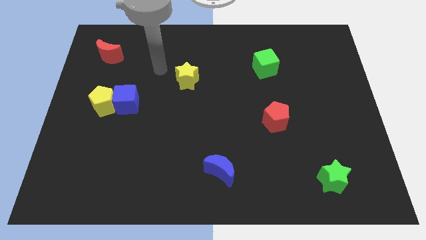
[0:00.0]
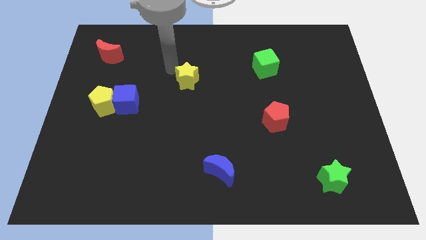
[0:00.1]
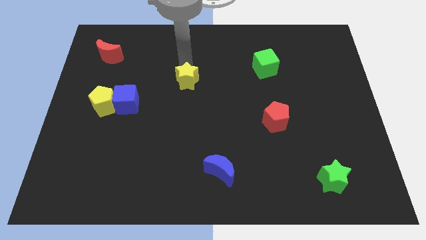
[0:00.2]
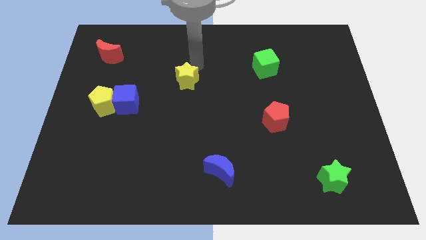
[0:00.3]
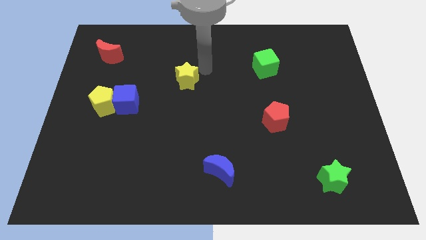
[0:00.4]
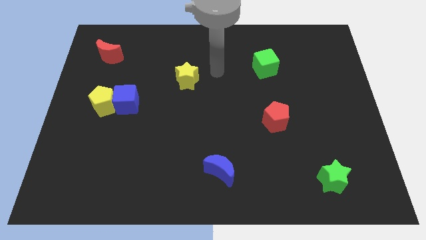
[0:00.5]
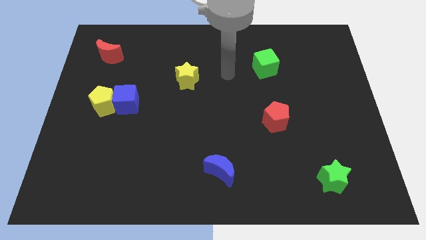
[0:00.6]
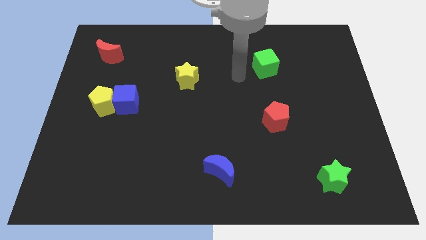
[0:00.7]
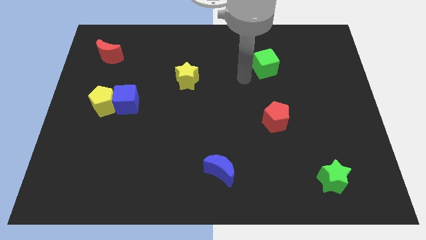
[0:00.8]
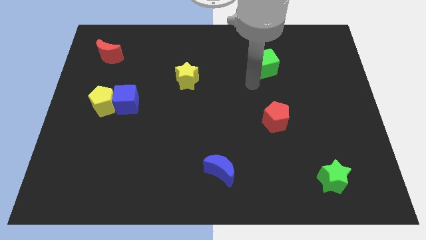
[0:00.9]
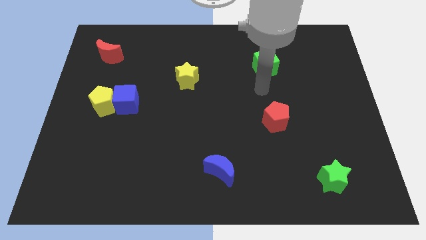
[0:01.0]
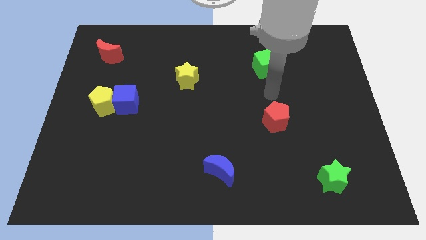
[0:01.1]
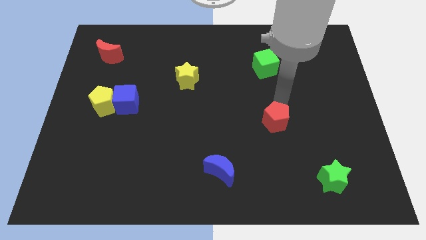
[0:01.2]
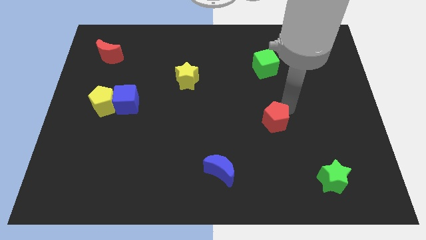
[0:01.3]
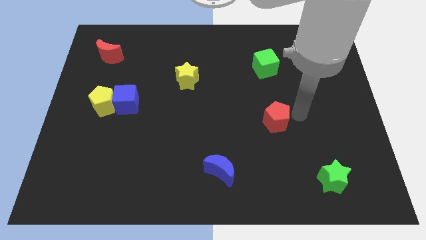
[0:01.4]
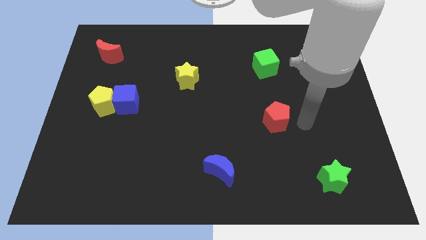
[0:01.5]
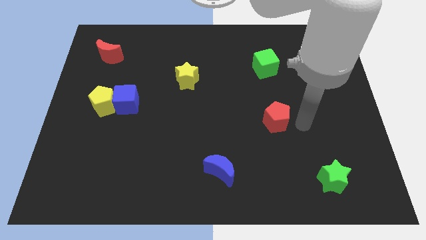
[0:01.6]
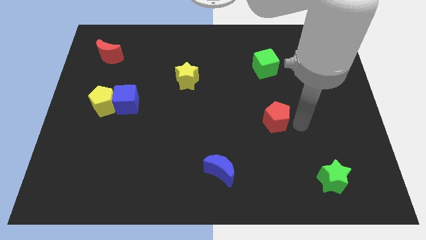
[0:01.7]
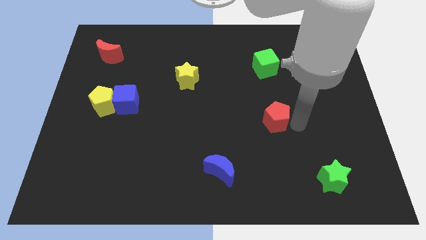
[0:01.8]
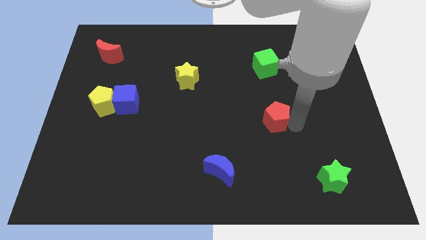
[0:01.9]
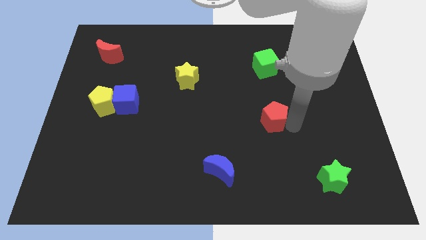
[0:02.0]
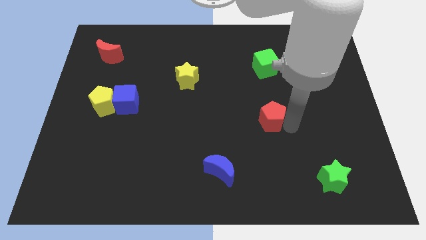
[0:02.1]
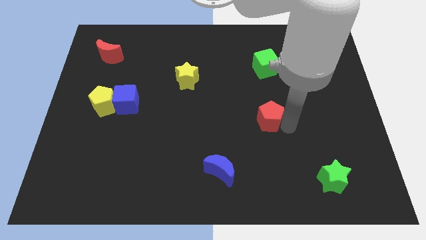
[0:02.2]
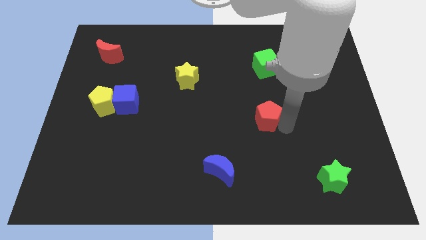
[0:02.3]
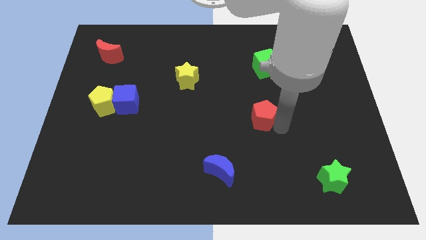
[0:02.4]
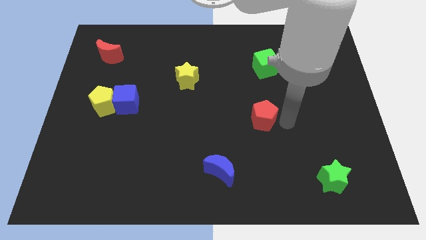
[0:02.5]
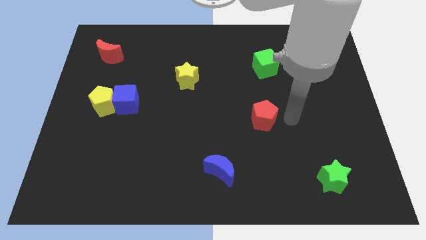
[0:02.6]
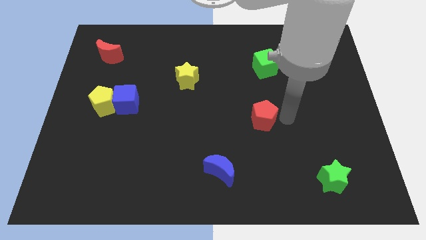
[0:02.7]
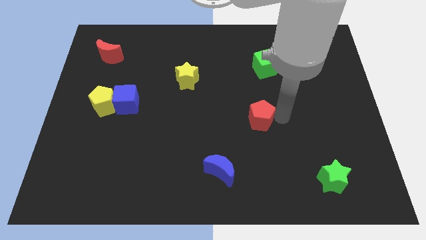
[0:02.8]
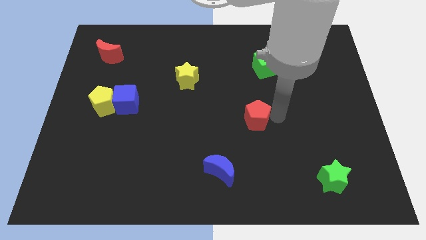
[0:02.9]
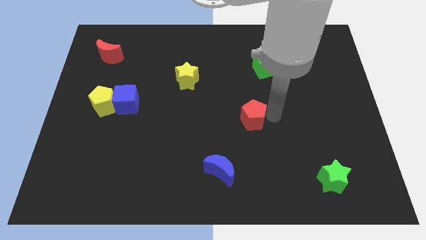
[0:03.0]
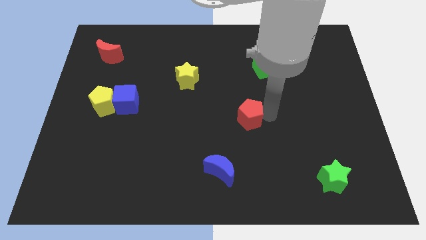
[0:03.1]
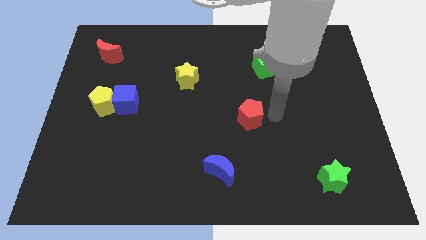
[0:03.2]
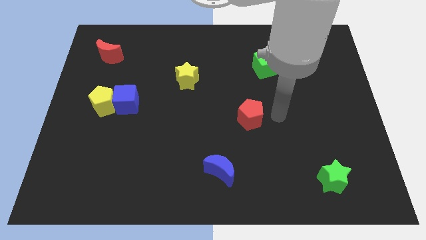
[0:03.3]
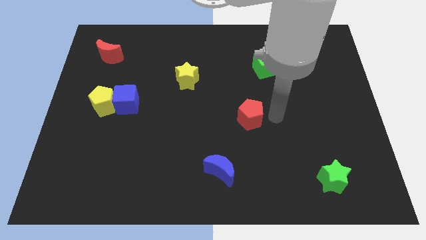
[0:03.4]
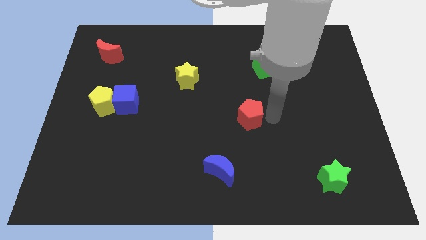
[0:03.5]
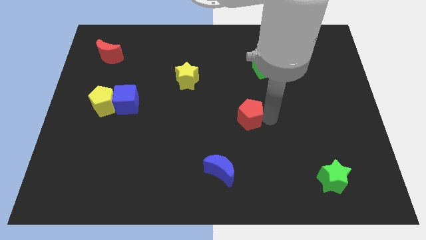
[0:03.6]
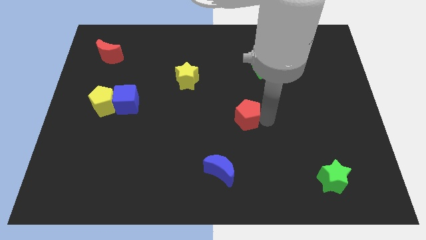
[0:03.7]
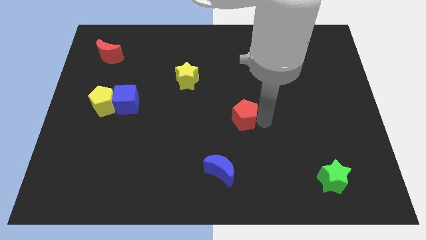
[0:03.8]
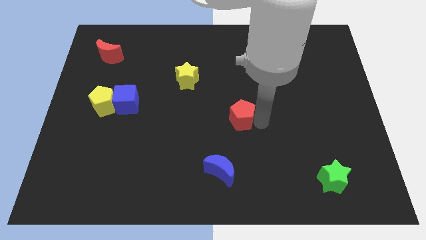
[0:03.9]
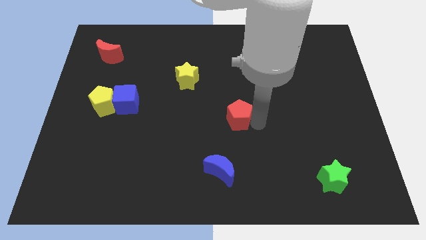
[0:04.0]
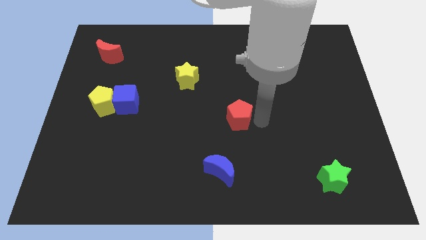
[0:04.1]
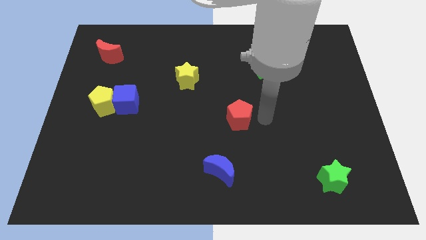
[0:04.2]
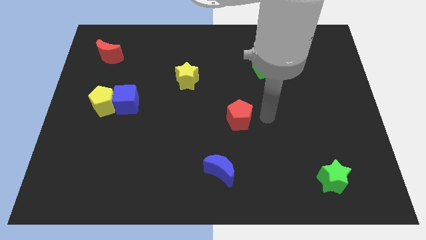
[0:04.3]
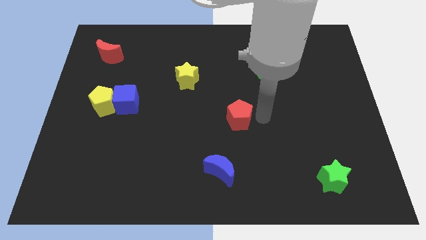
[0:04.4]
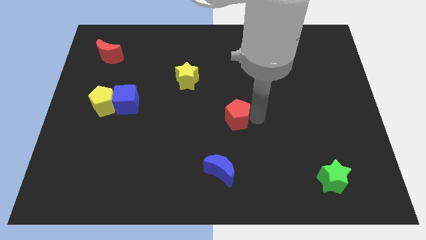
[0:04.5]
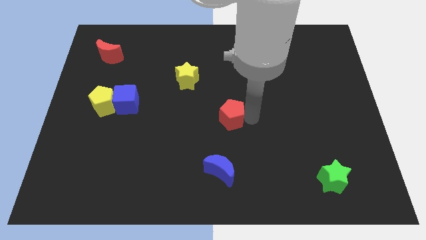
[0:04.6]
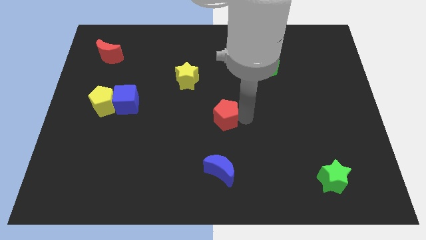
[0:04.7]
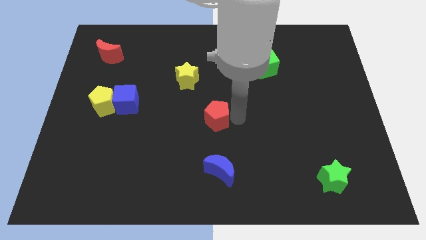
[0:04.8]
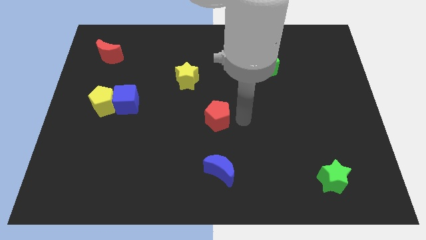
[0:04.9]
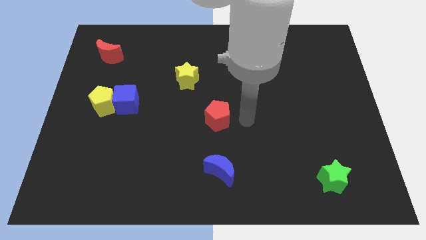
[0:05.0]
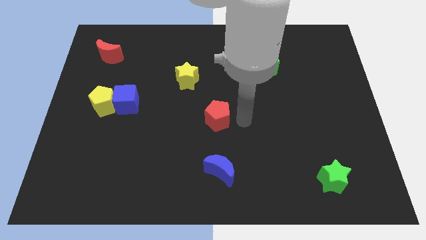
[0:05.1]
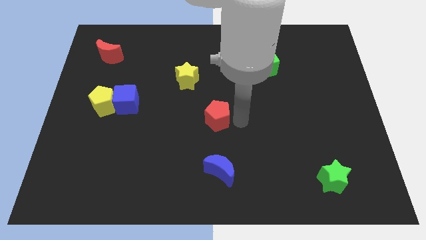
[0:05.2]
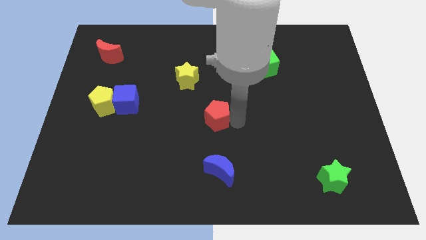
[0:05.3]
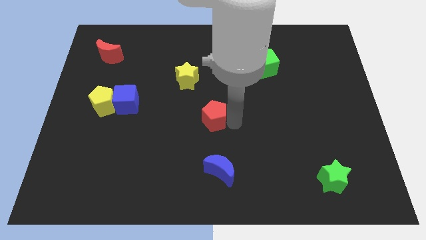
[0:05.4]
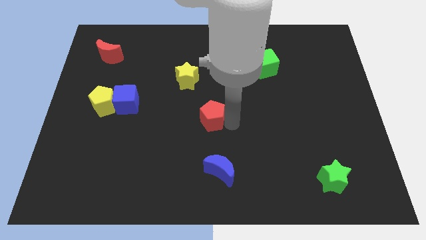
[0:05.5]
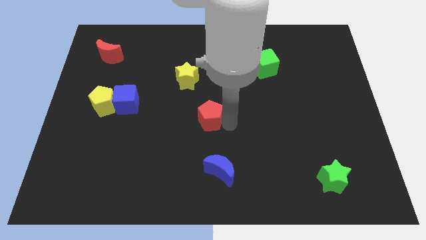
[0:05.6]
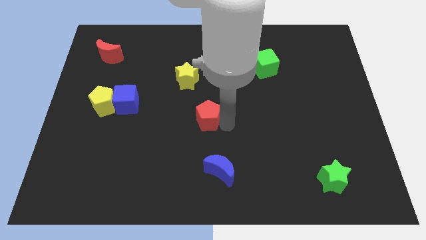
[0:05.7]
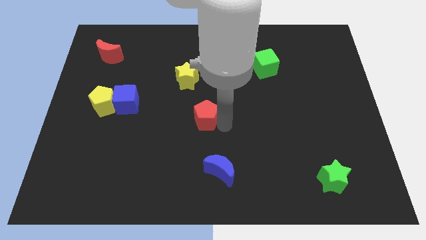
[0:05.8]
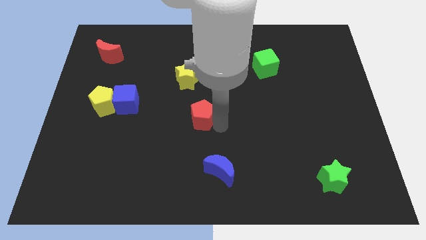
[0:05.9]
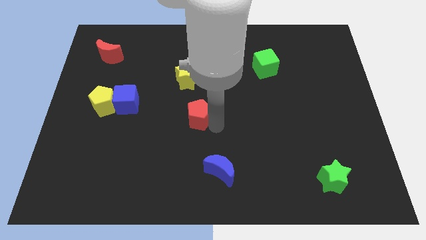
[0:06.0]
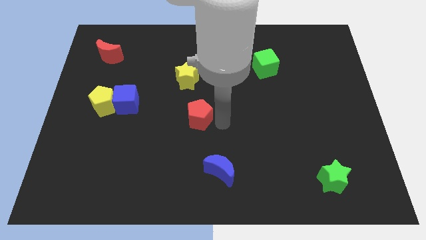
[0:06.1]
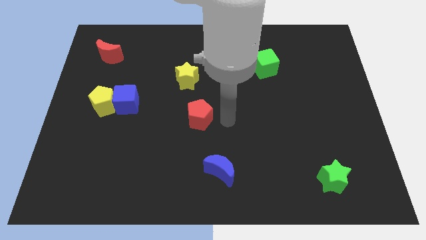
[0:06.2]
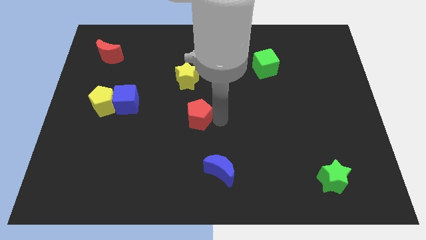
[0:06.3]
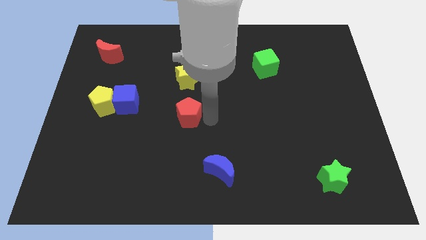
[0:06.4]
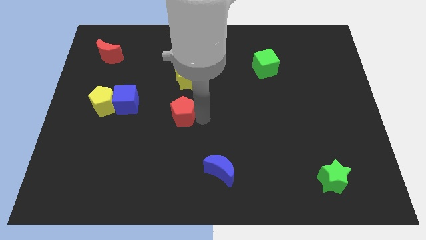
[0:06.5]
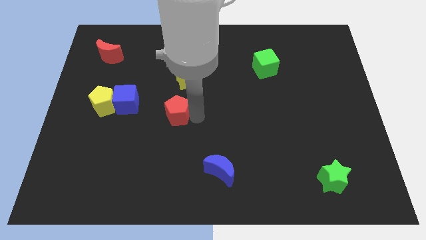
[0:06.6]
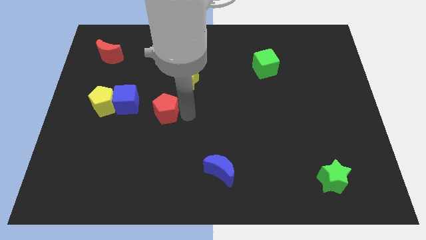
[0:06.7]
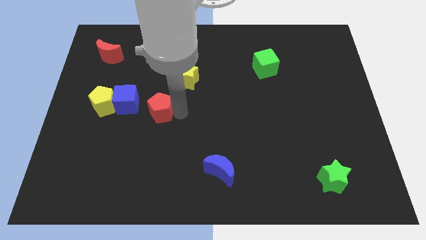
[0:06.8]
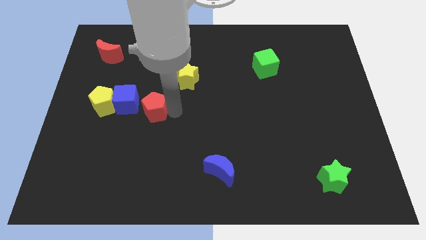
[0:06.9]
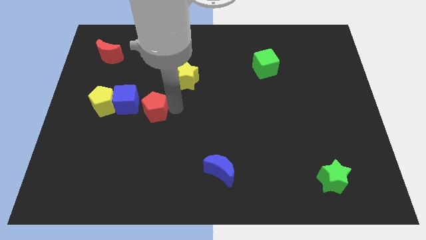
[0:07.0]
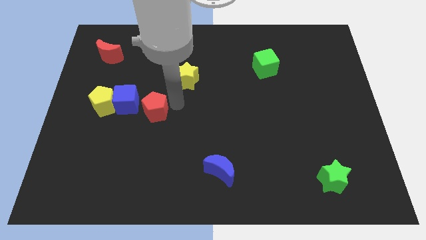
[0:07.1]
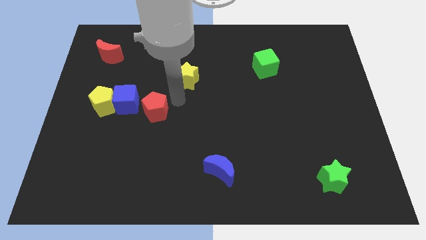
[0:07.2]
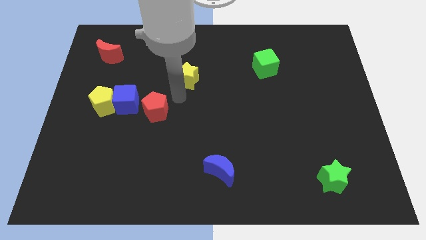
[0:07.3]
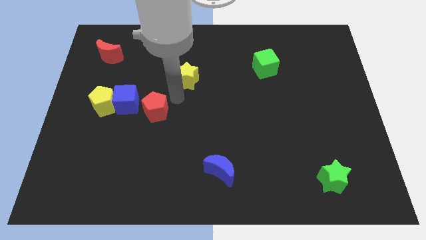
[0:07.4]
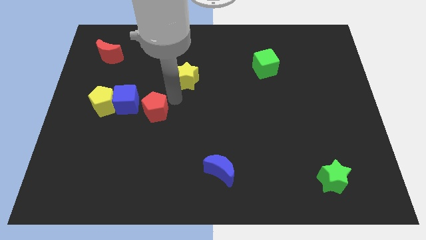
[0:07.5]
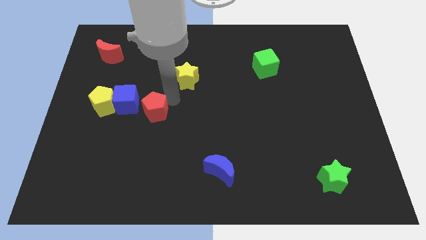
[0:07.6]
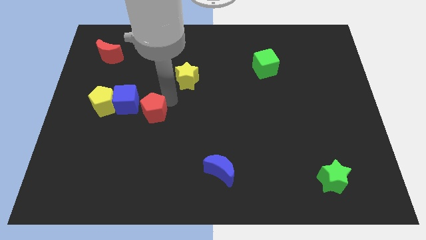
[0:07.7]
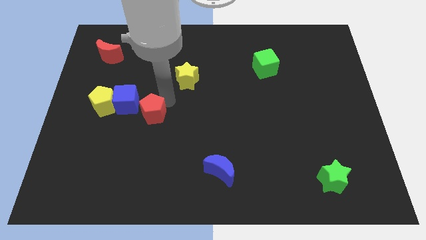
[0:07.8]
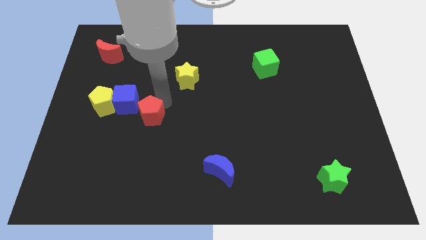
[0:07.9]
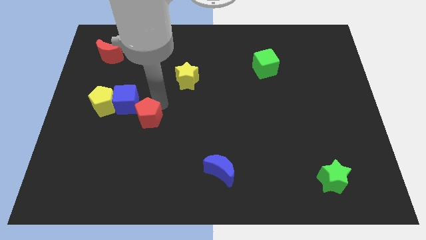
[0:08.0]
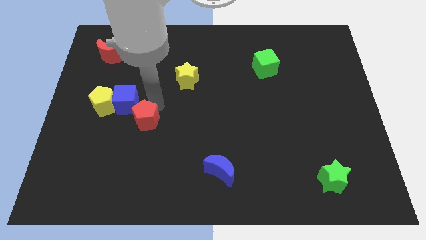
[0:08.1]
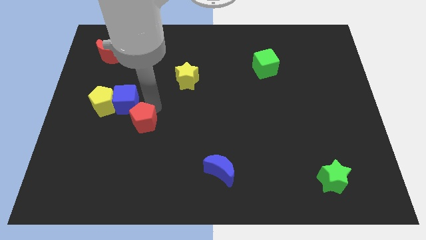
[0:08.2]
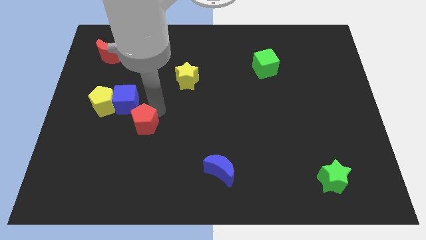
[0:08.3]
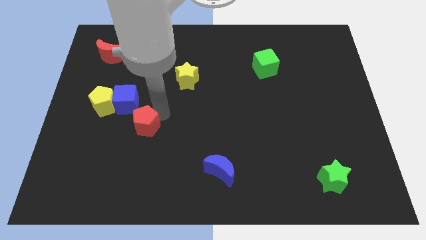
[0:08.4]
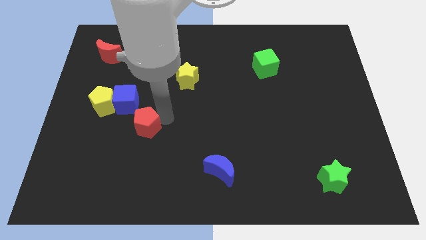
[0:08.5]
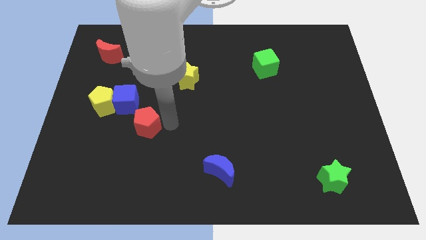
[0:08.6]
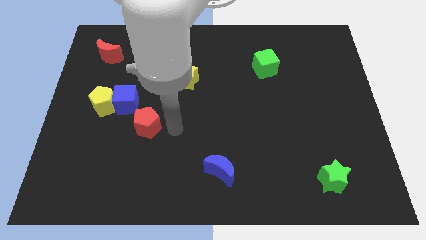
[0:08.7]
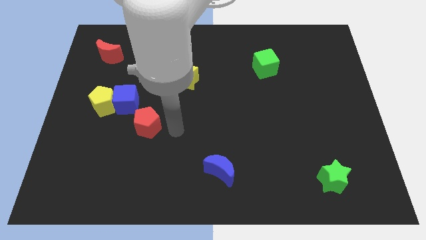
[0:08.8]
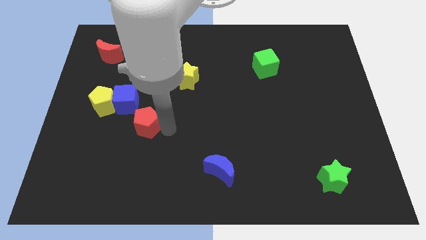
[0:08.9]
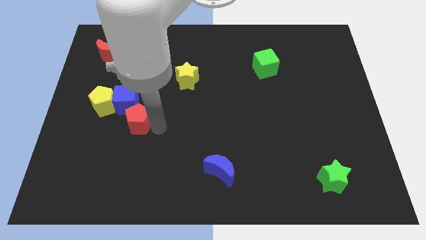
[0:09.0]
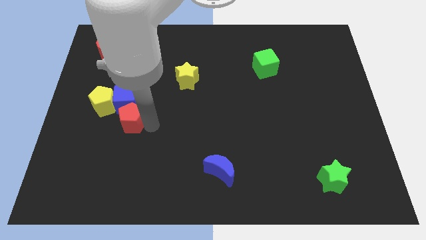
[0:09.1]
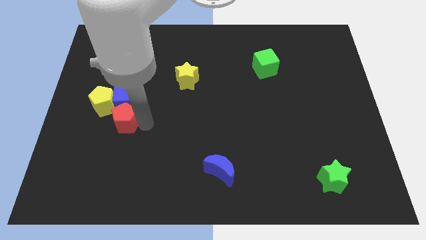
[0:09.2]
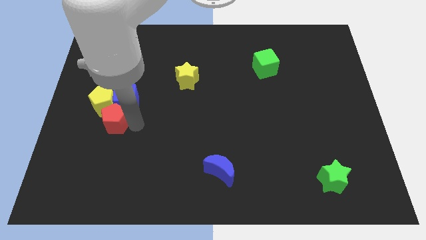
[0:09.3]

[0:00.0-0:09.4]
put the red pentagon to the yellow pentagon
